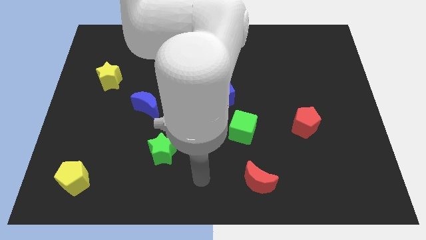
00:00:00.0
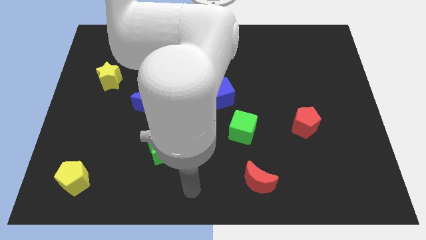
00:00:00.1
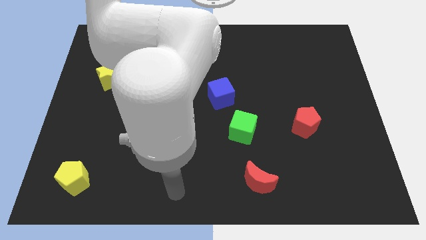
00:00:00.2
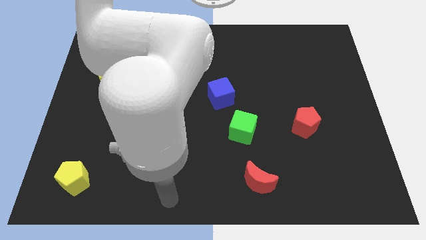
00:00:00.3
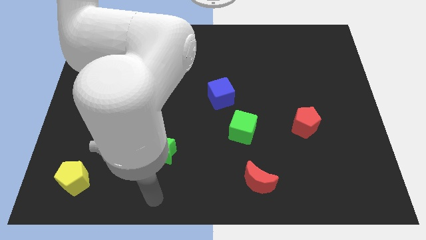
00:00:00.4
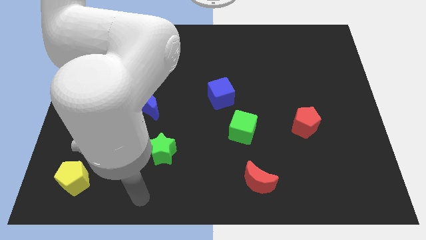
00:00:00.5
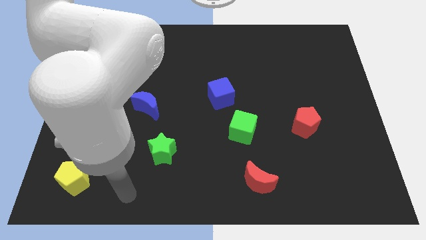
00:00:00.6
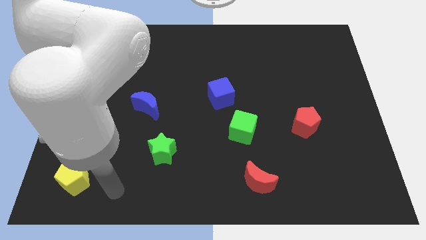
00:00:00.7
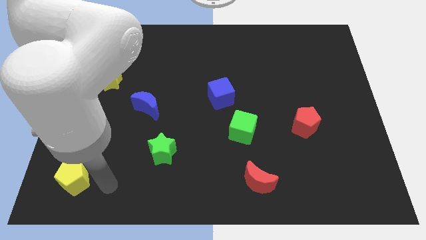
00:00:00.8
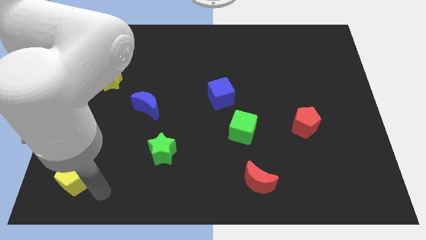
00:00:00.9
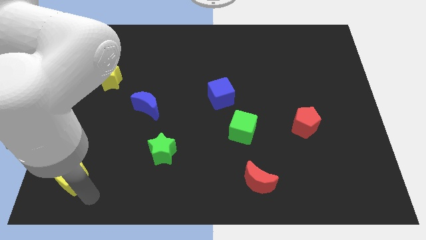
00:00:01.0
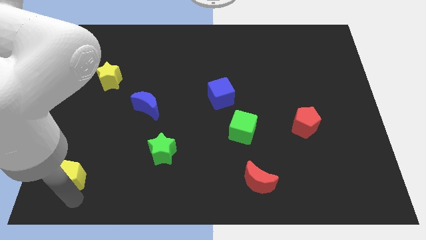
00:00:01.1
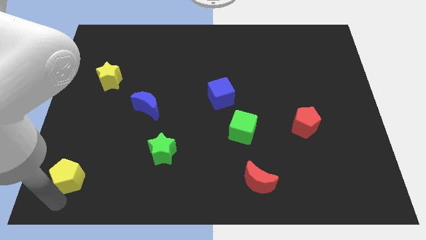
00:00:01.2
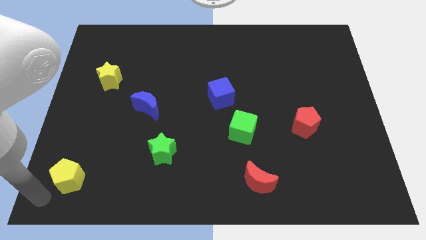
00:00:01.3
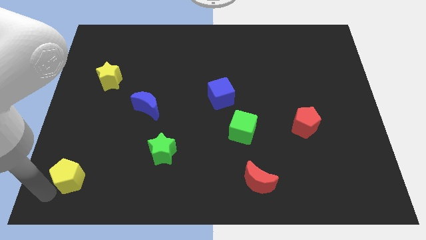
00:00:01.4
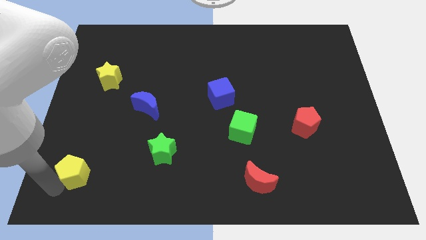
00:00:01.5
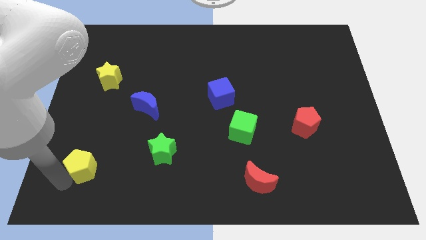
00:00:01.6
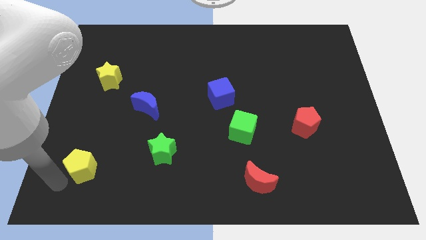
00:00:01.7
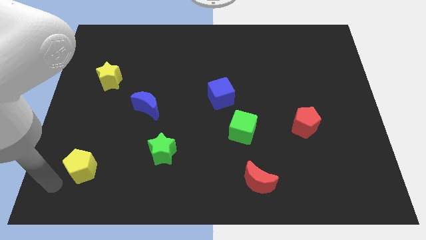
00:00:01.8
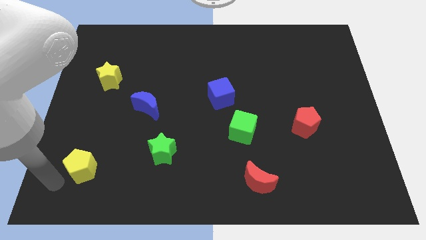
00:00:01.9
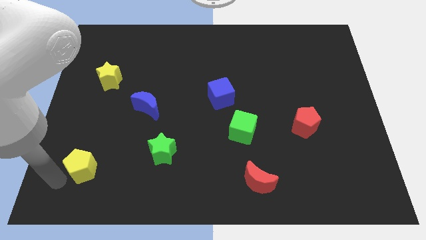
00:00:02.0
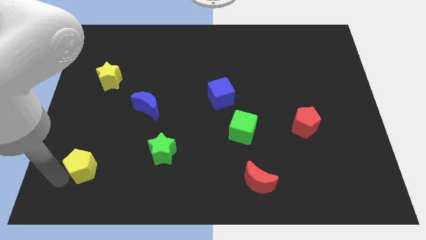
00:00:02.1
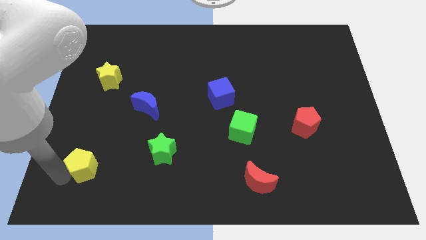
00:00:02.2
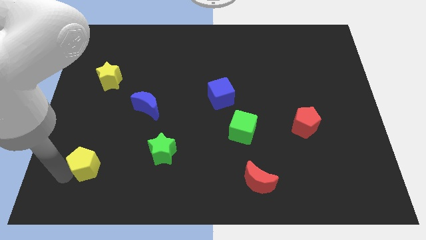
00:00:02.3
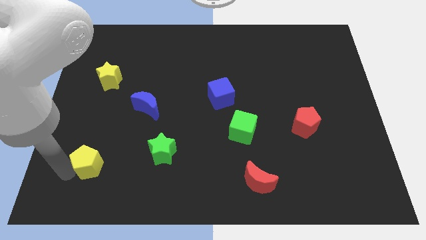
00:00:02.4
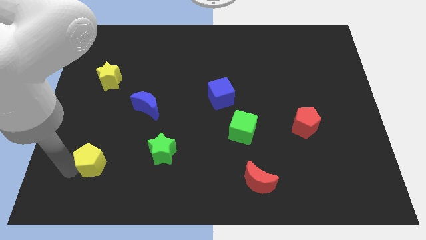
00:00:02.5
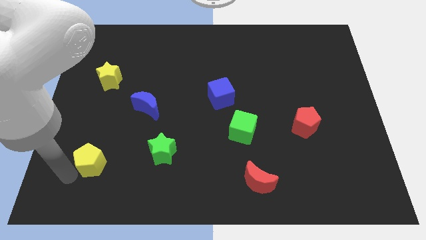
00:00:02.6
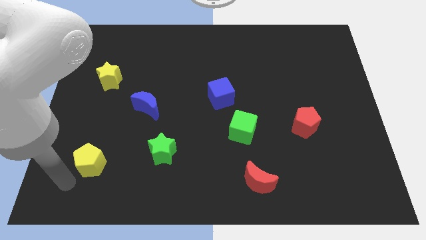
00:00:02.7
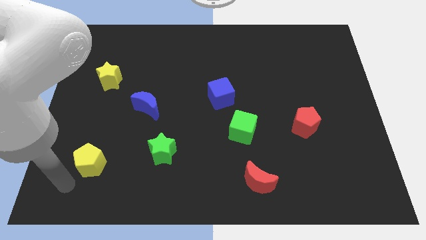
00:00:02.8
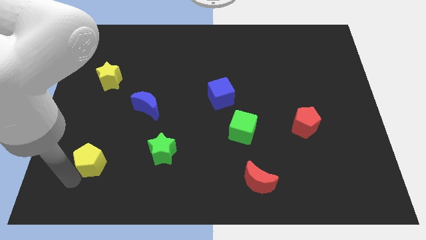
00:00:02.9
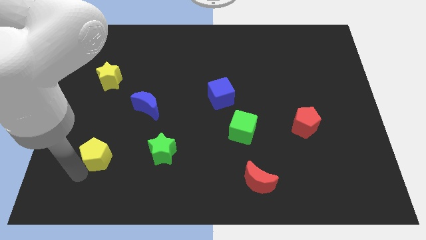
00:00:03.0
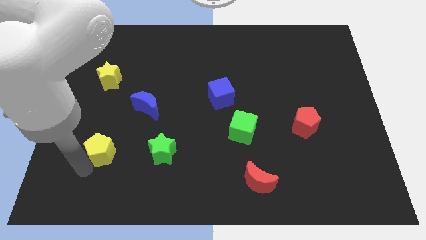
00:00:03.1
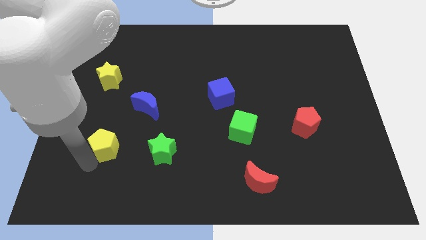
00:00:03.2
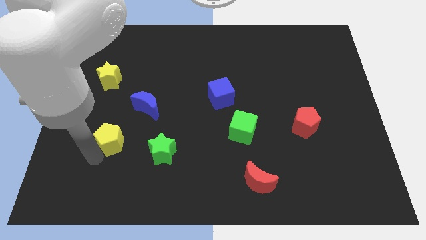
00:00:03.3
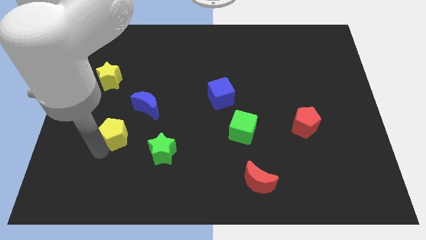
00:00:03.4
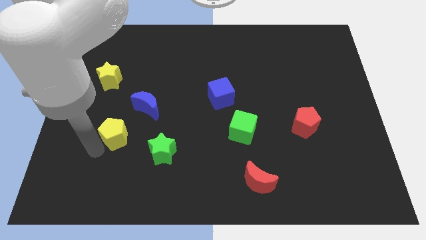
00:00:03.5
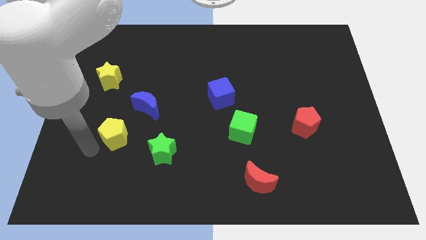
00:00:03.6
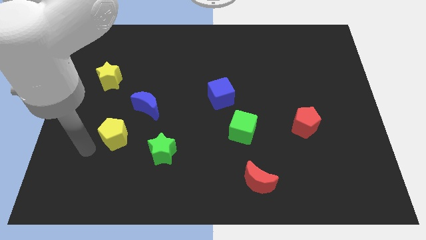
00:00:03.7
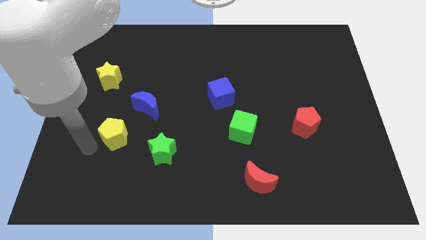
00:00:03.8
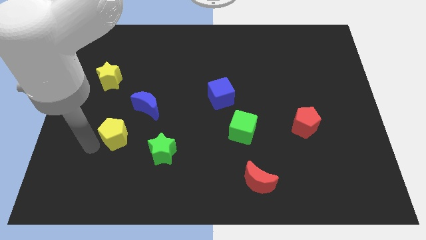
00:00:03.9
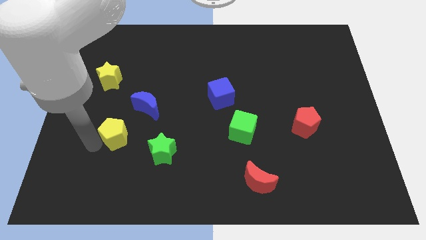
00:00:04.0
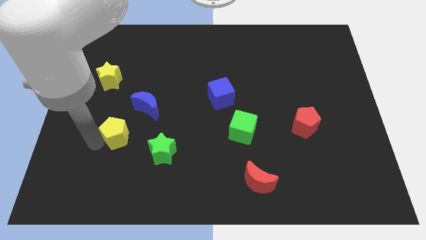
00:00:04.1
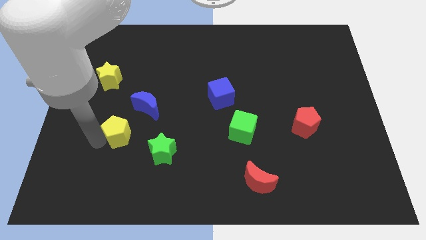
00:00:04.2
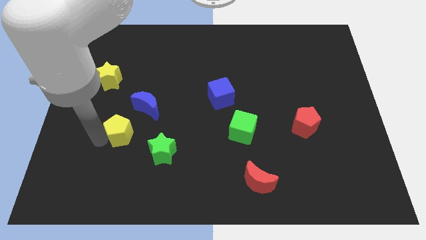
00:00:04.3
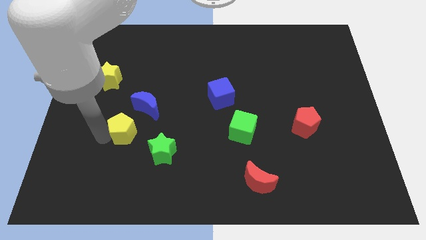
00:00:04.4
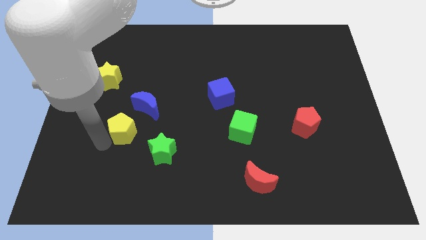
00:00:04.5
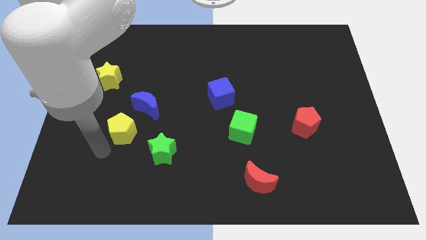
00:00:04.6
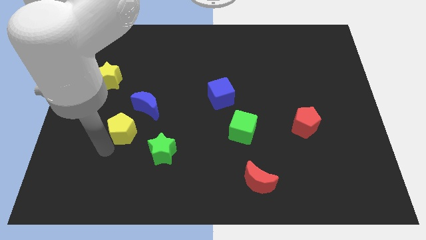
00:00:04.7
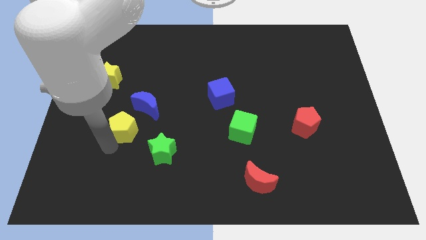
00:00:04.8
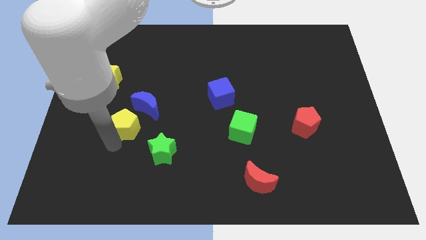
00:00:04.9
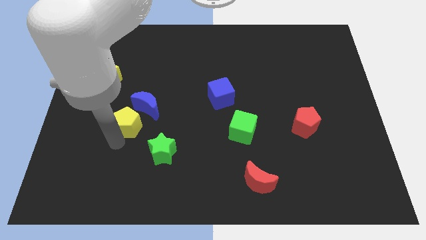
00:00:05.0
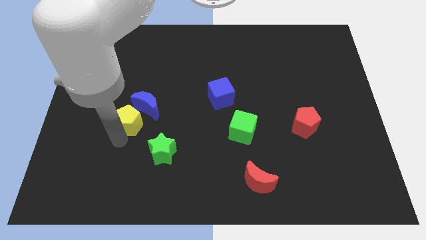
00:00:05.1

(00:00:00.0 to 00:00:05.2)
move the yellow pentagon close to the blue moon

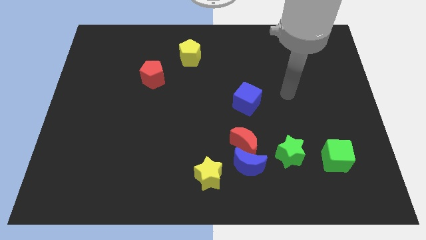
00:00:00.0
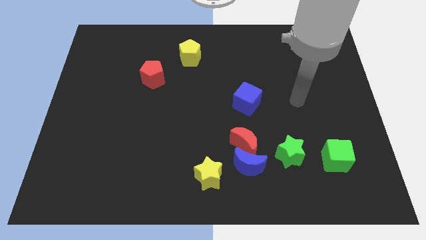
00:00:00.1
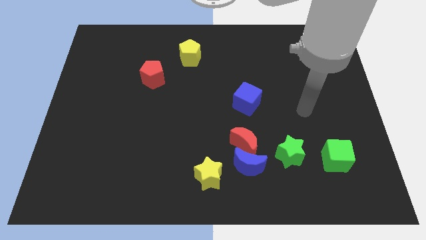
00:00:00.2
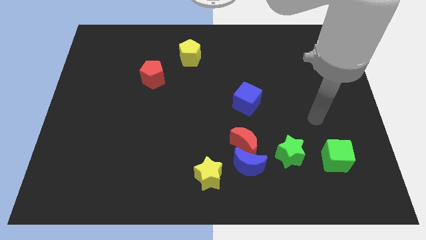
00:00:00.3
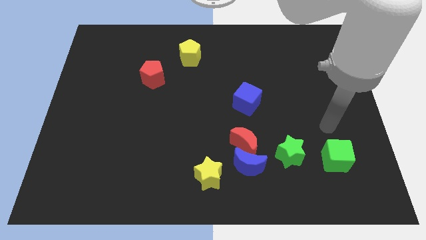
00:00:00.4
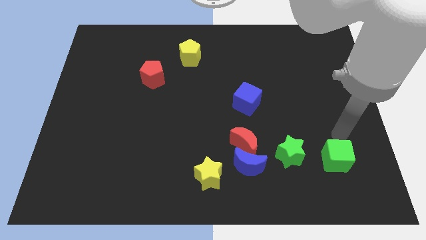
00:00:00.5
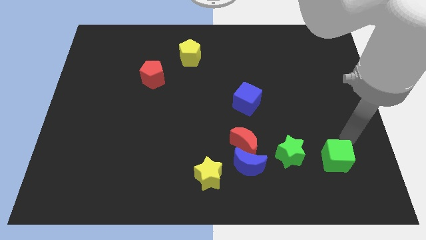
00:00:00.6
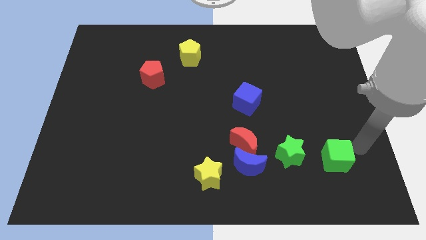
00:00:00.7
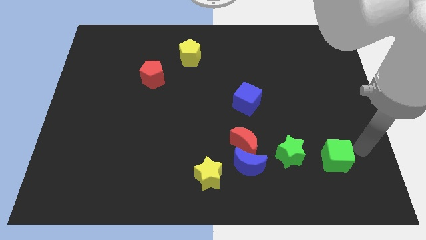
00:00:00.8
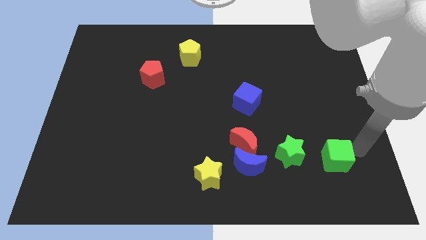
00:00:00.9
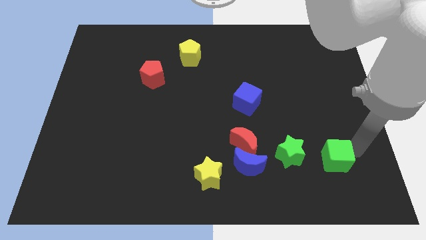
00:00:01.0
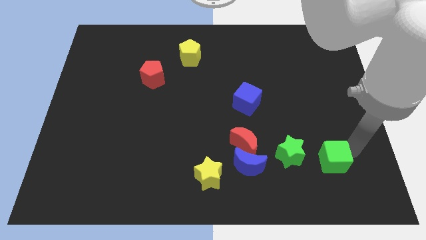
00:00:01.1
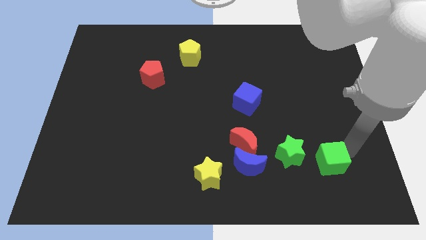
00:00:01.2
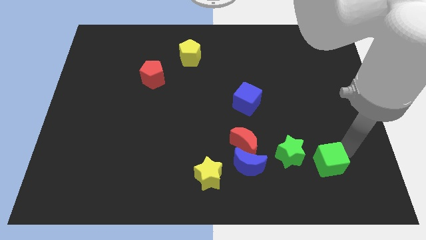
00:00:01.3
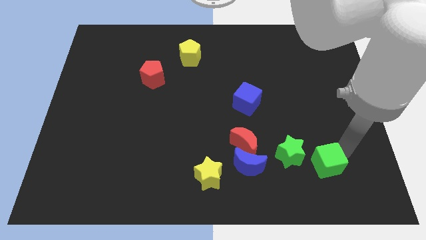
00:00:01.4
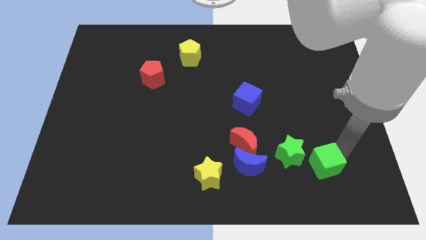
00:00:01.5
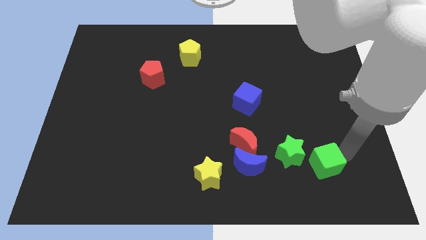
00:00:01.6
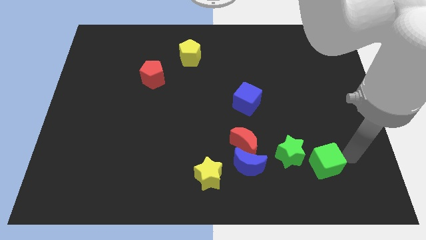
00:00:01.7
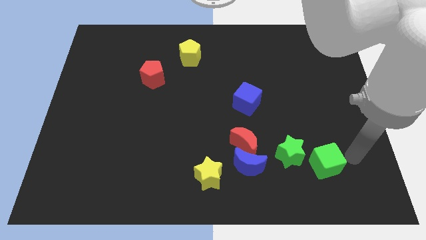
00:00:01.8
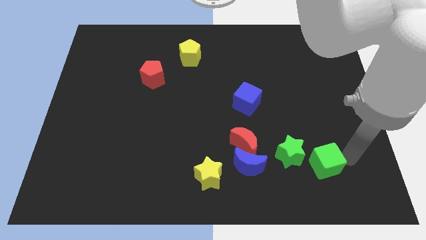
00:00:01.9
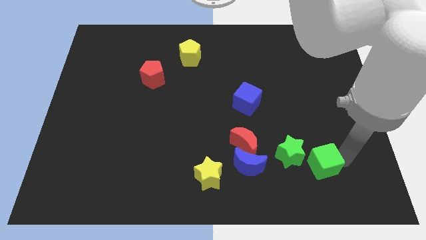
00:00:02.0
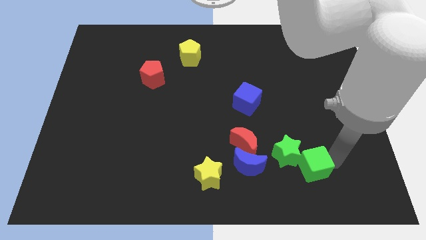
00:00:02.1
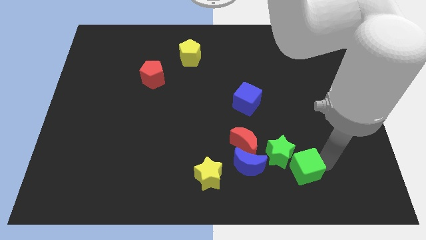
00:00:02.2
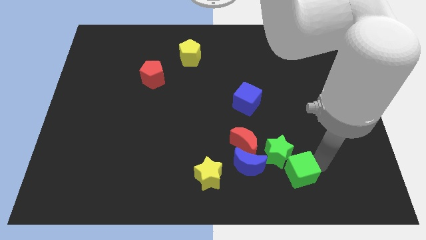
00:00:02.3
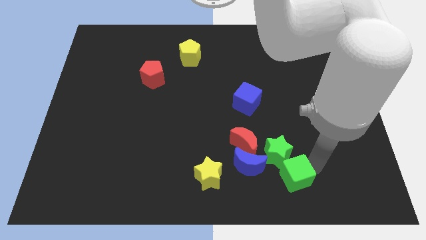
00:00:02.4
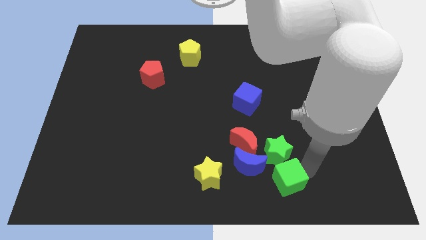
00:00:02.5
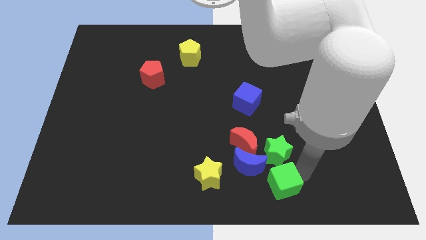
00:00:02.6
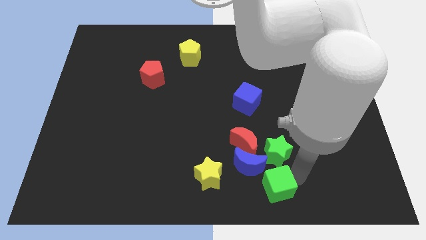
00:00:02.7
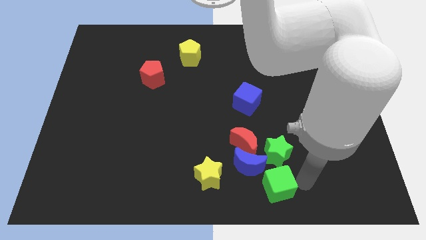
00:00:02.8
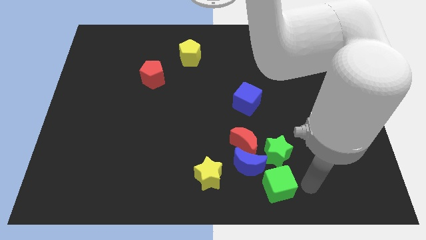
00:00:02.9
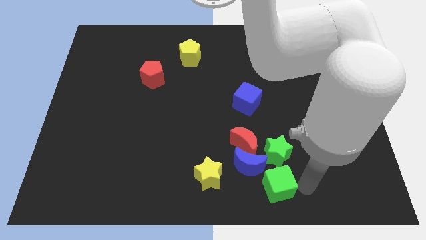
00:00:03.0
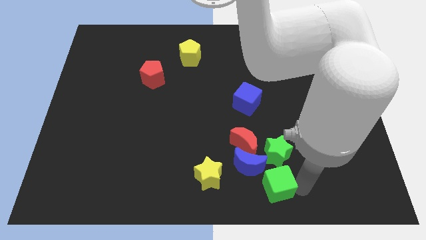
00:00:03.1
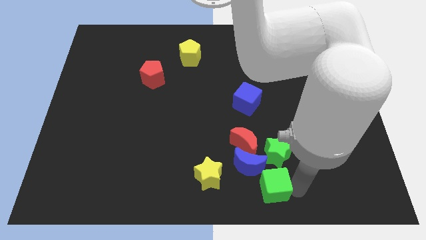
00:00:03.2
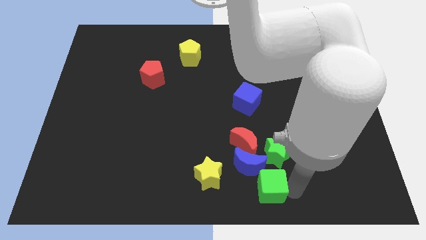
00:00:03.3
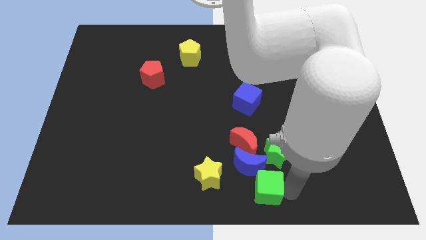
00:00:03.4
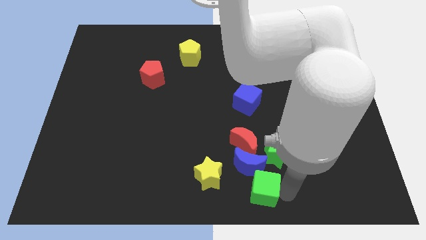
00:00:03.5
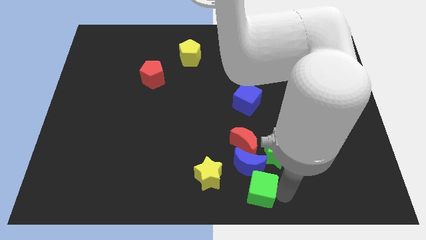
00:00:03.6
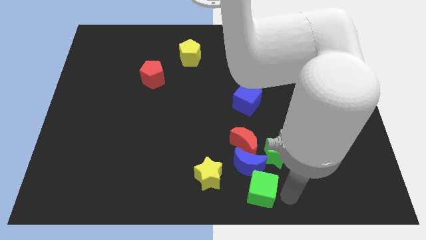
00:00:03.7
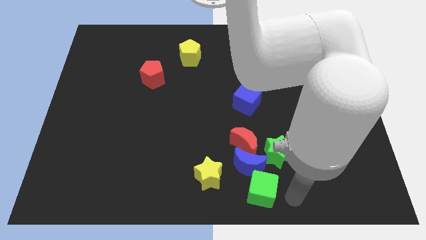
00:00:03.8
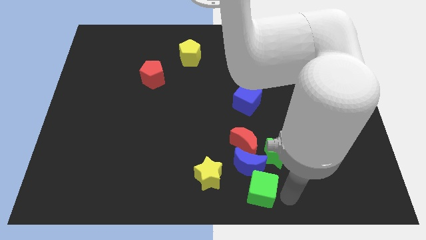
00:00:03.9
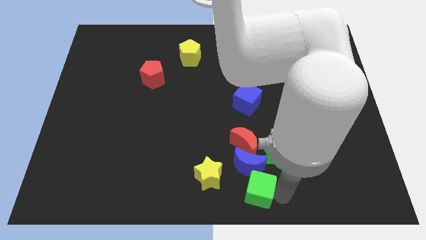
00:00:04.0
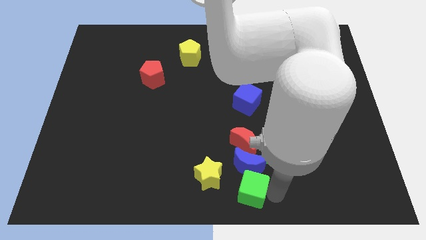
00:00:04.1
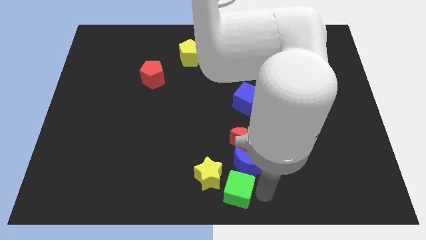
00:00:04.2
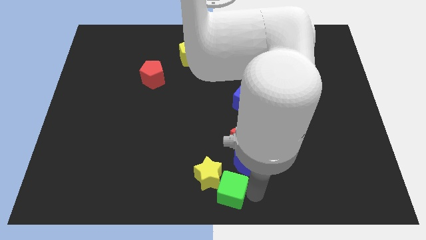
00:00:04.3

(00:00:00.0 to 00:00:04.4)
move the green cube close to the yellow star
